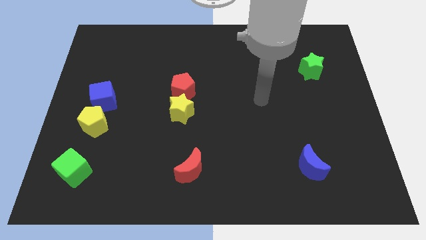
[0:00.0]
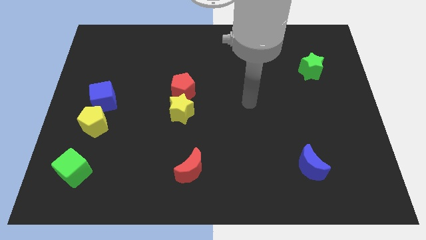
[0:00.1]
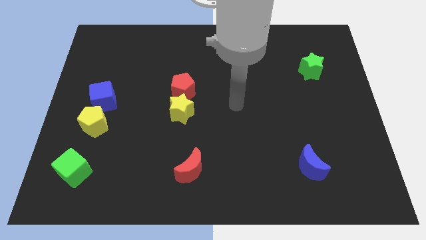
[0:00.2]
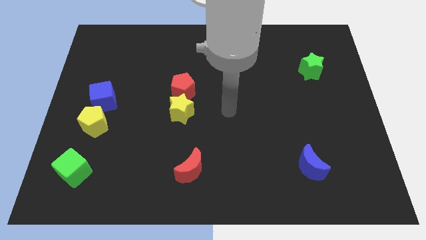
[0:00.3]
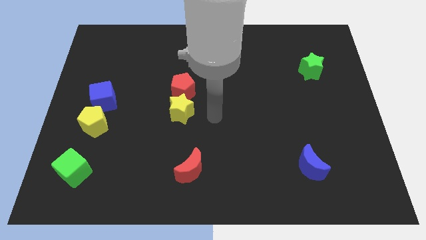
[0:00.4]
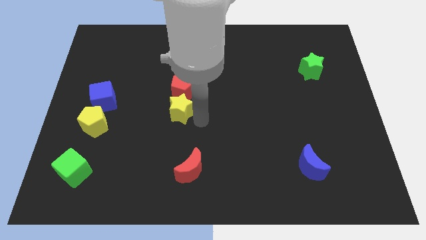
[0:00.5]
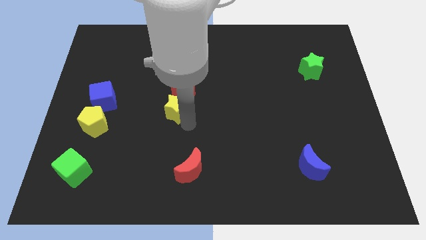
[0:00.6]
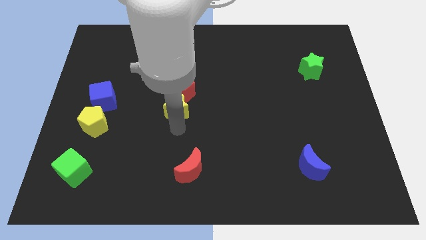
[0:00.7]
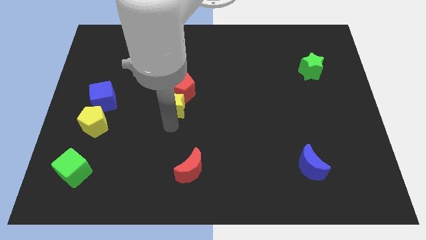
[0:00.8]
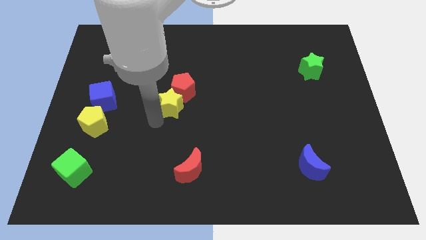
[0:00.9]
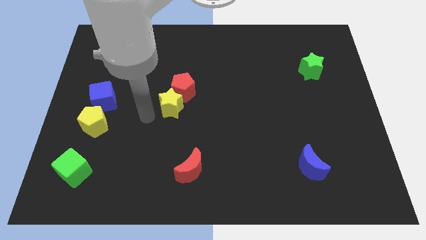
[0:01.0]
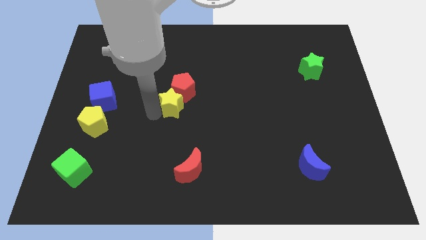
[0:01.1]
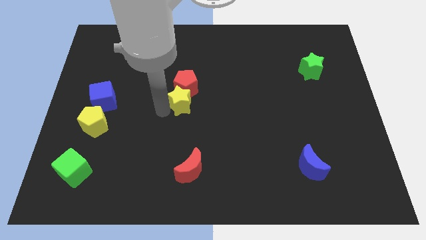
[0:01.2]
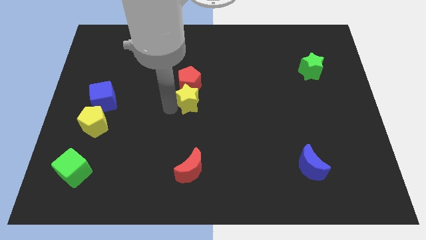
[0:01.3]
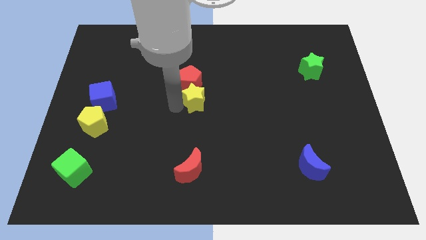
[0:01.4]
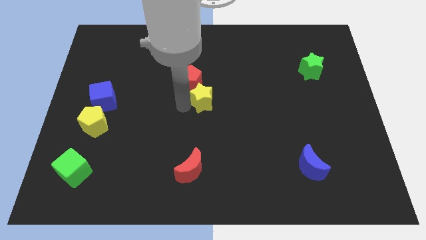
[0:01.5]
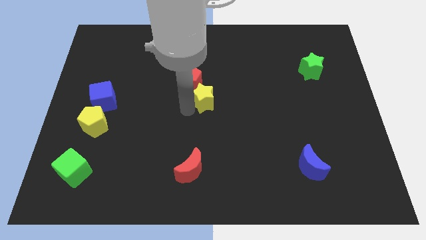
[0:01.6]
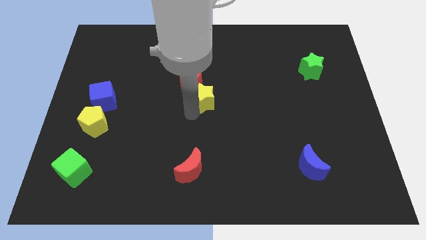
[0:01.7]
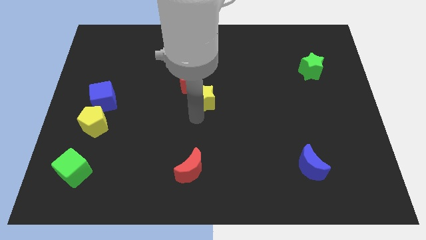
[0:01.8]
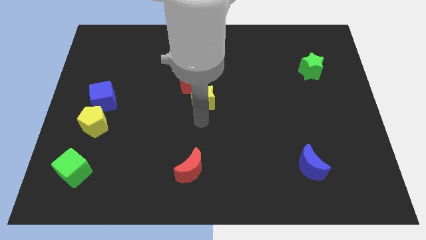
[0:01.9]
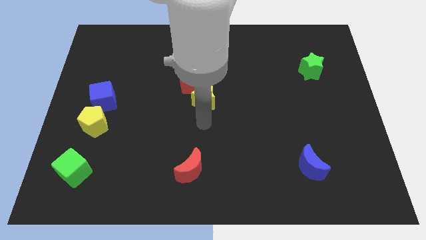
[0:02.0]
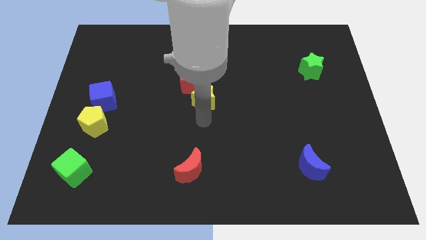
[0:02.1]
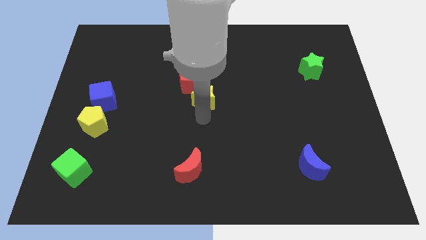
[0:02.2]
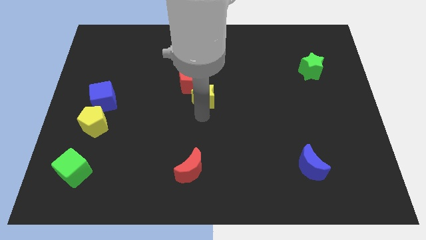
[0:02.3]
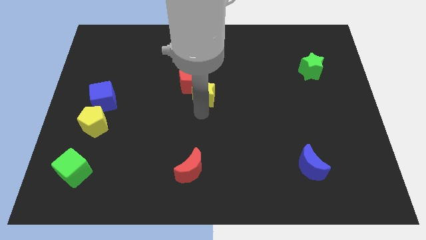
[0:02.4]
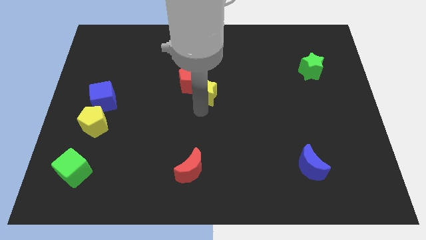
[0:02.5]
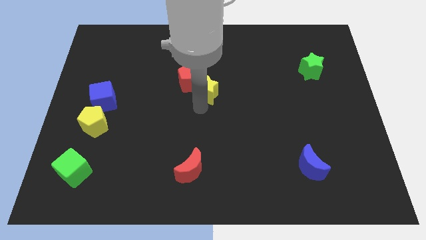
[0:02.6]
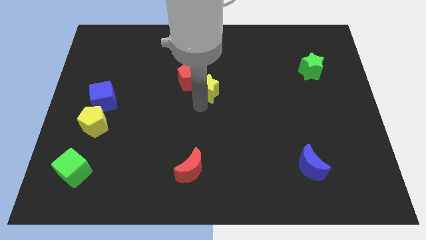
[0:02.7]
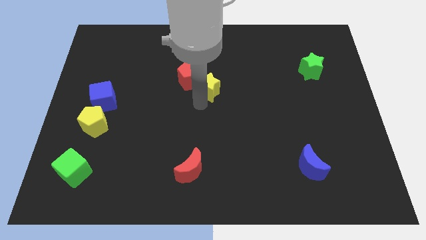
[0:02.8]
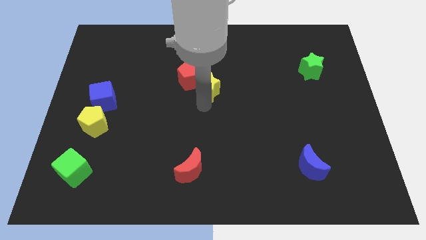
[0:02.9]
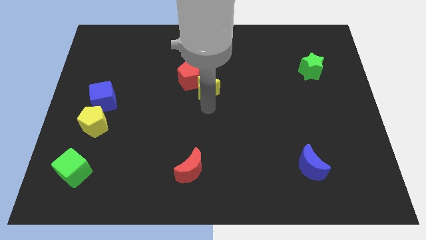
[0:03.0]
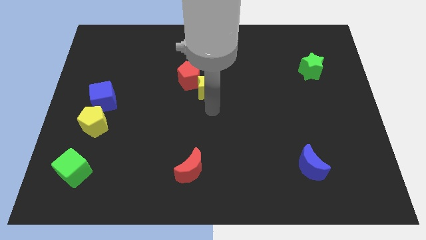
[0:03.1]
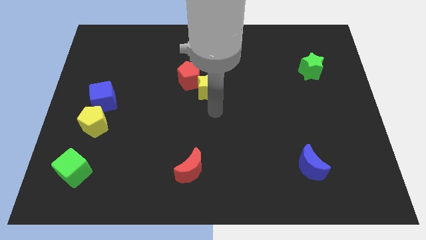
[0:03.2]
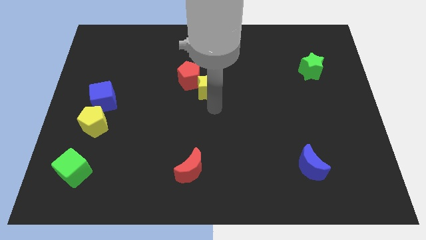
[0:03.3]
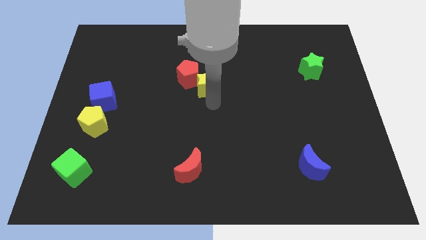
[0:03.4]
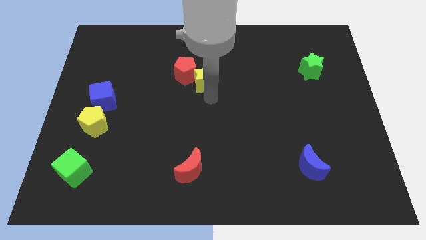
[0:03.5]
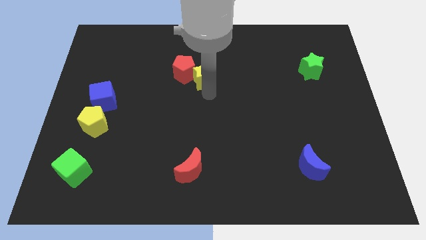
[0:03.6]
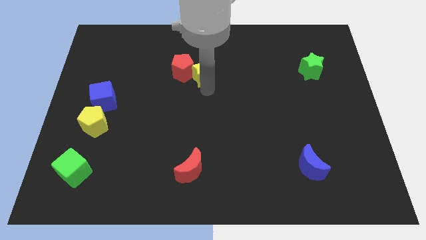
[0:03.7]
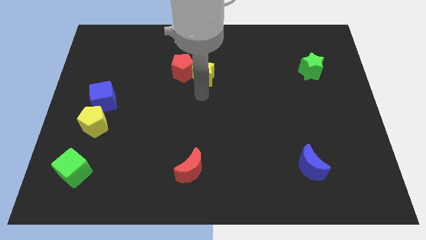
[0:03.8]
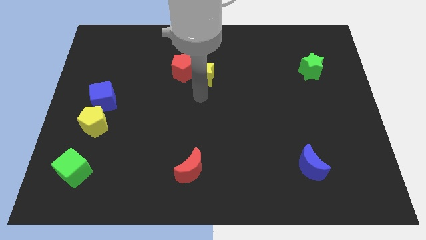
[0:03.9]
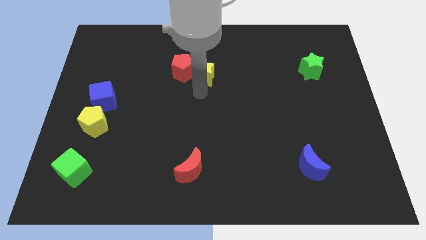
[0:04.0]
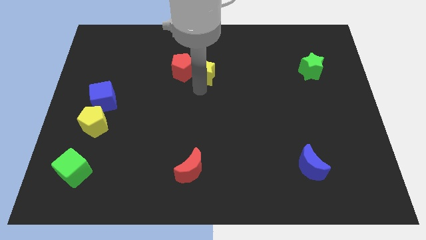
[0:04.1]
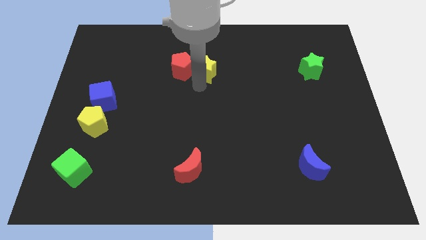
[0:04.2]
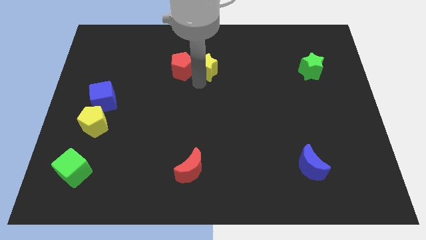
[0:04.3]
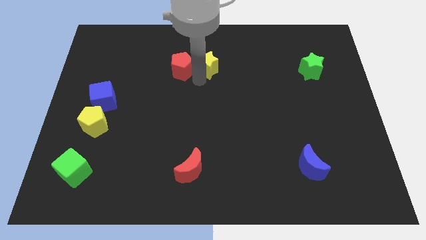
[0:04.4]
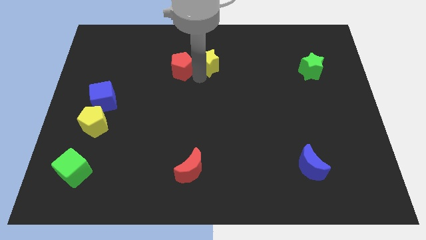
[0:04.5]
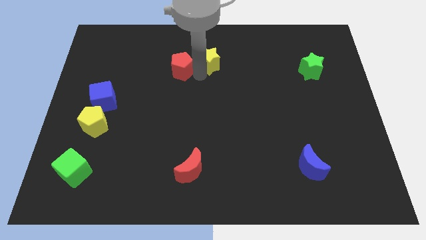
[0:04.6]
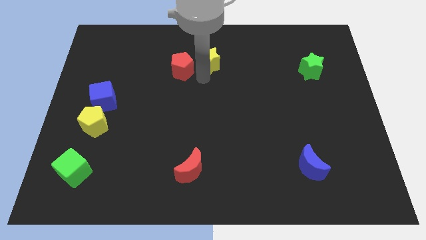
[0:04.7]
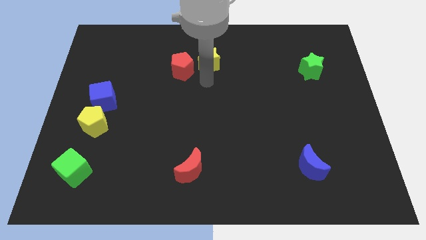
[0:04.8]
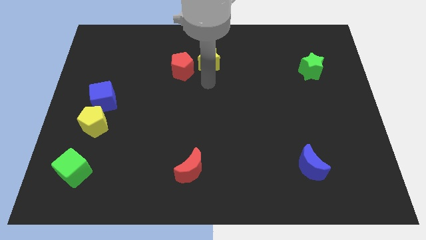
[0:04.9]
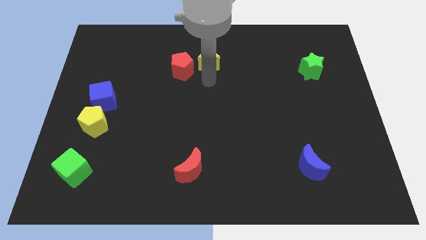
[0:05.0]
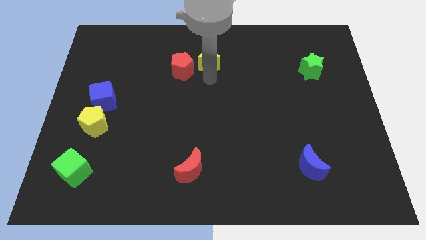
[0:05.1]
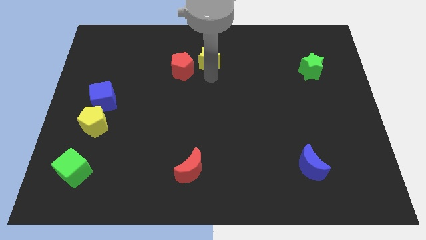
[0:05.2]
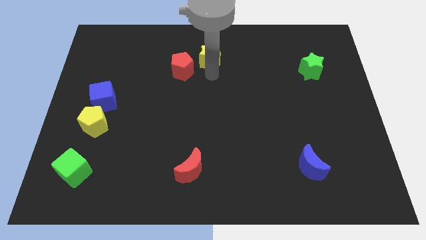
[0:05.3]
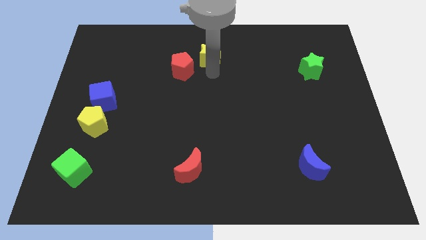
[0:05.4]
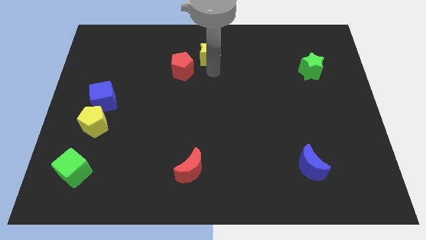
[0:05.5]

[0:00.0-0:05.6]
put the yellow star to the top

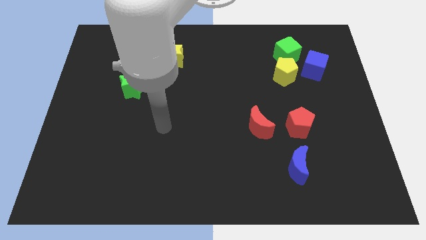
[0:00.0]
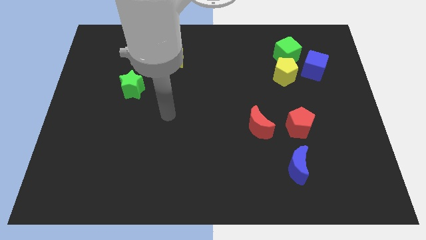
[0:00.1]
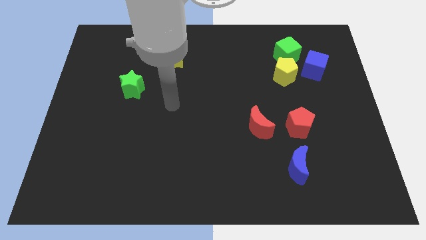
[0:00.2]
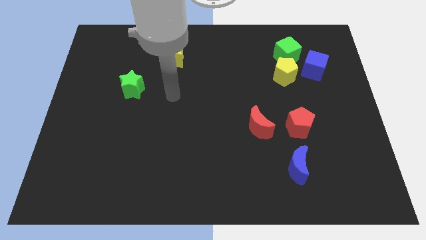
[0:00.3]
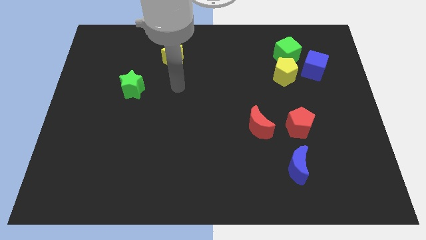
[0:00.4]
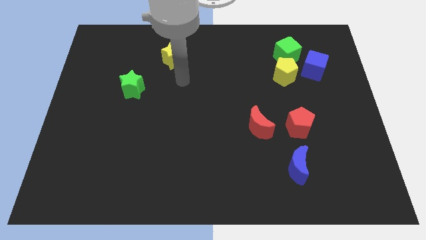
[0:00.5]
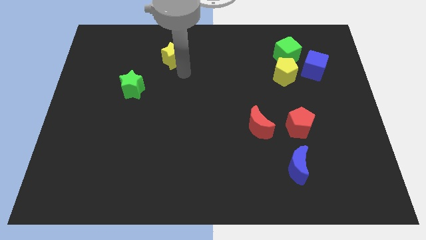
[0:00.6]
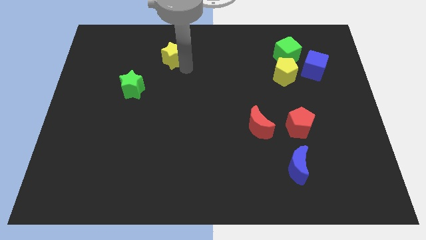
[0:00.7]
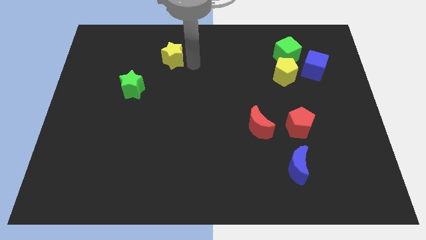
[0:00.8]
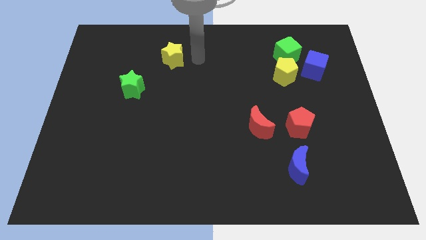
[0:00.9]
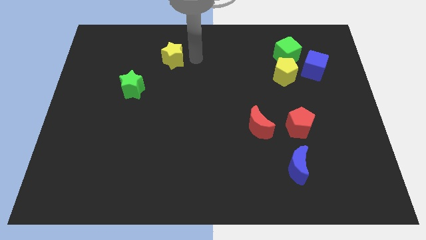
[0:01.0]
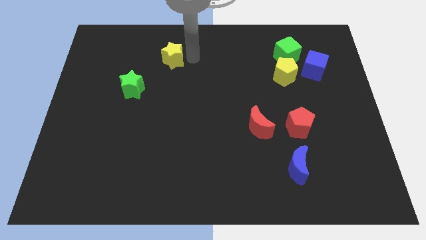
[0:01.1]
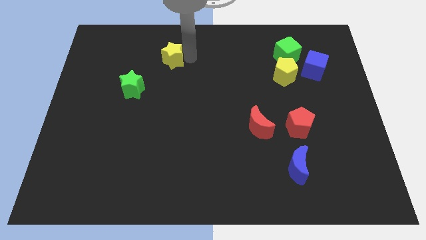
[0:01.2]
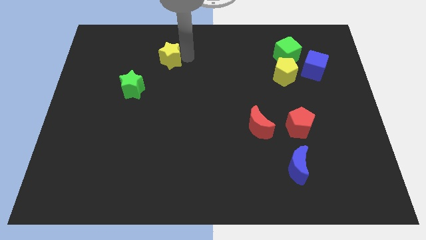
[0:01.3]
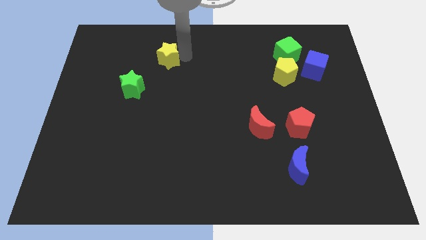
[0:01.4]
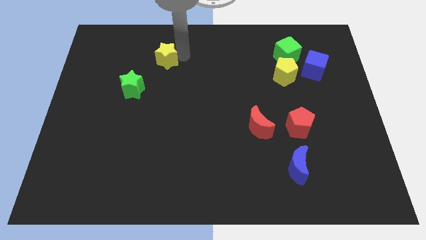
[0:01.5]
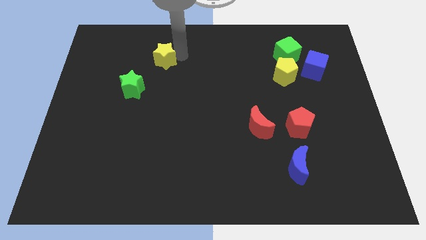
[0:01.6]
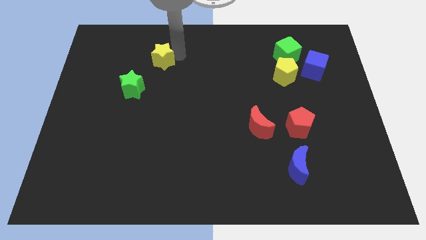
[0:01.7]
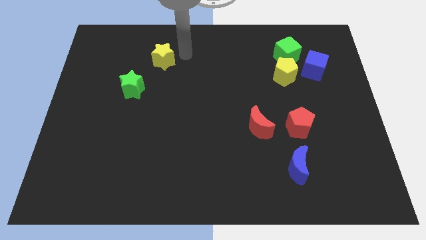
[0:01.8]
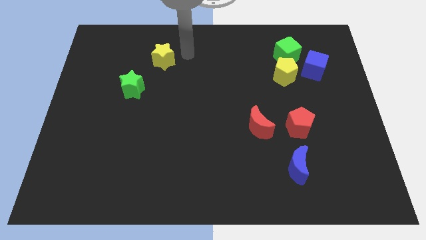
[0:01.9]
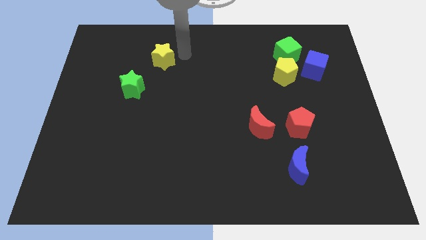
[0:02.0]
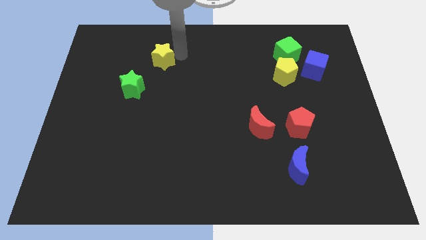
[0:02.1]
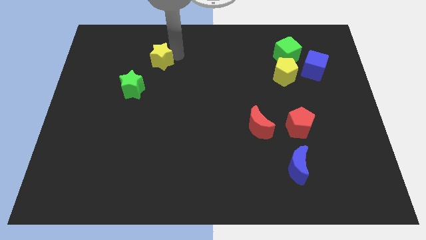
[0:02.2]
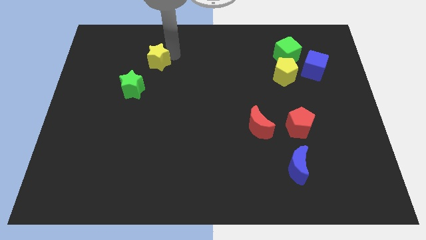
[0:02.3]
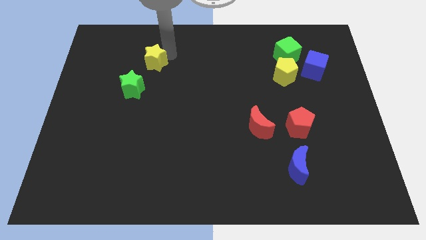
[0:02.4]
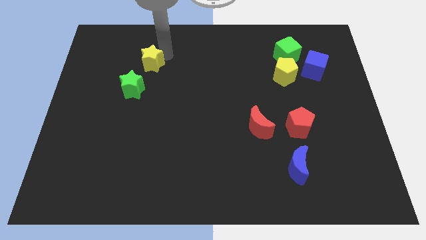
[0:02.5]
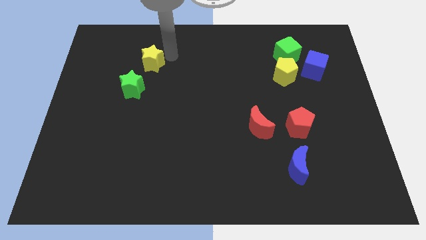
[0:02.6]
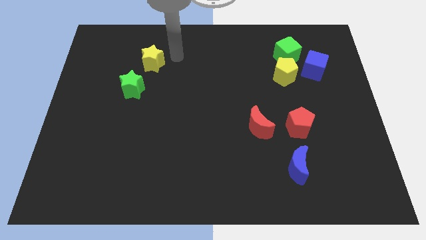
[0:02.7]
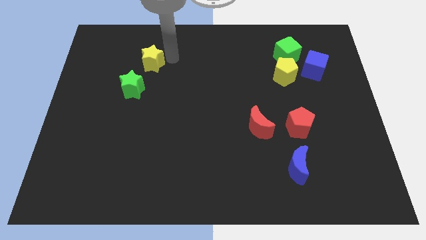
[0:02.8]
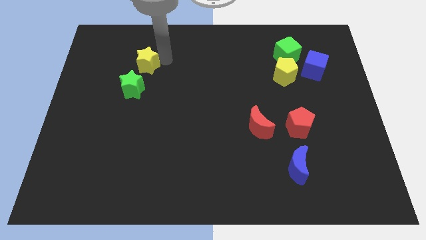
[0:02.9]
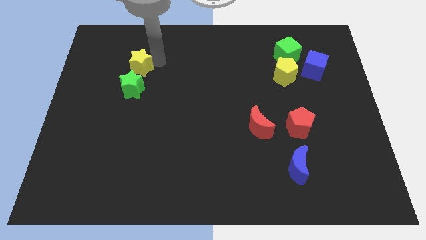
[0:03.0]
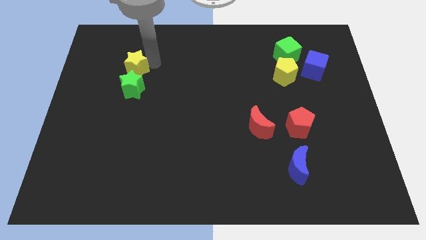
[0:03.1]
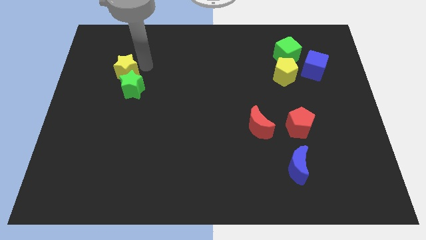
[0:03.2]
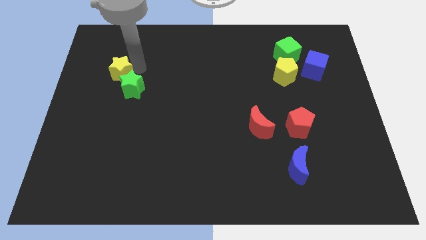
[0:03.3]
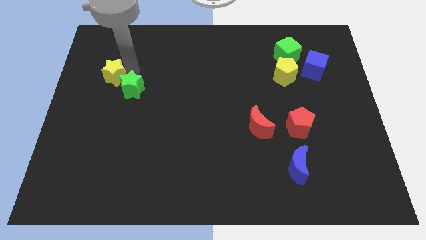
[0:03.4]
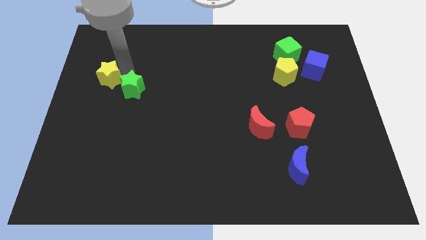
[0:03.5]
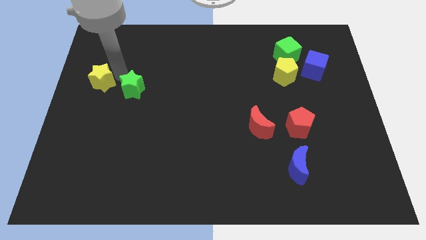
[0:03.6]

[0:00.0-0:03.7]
put the yellow star to the left side
